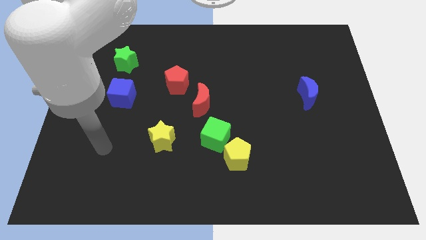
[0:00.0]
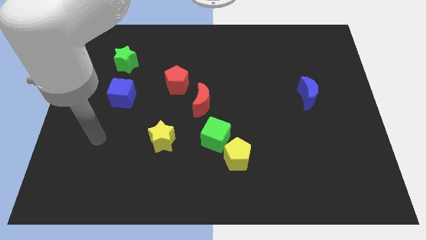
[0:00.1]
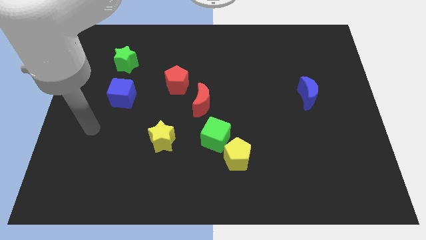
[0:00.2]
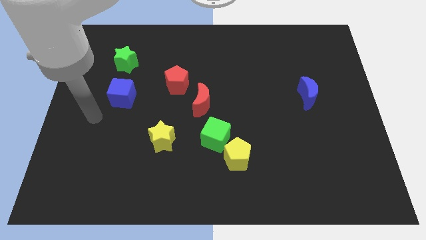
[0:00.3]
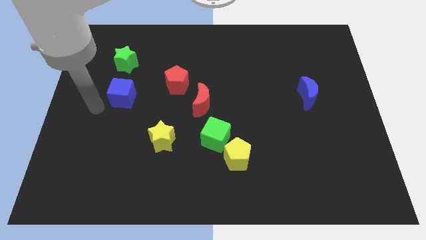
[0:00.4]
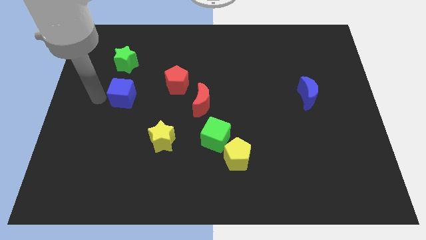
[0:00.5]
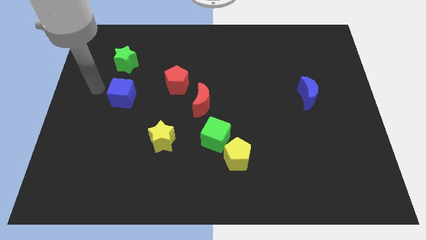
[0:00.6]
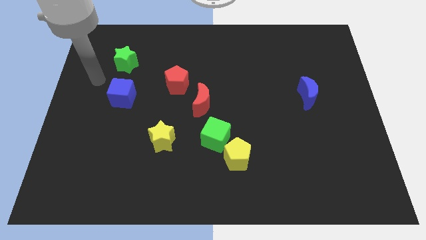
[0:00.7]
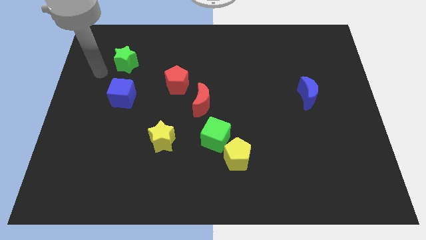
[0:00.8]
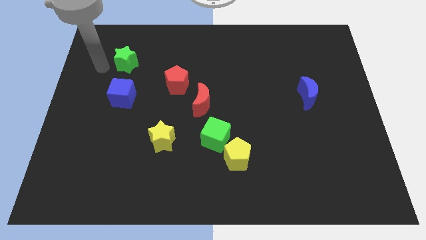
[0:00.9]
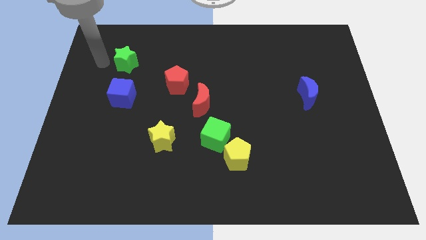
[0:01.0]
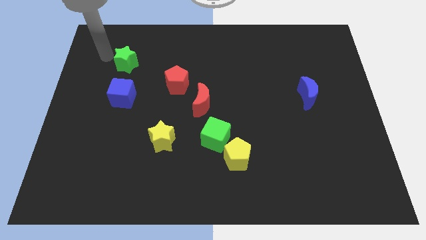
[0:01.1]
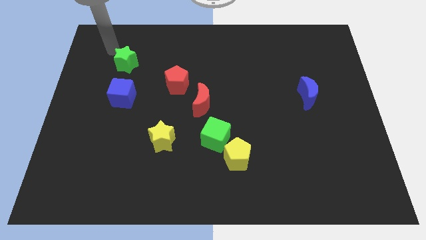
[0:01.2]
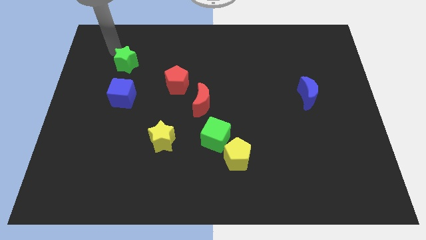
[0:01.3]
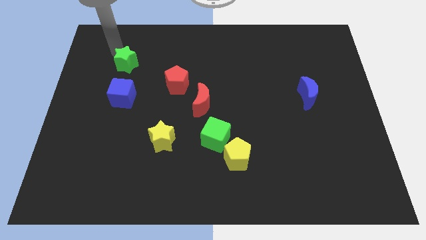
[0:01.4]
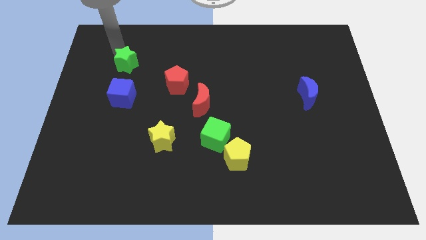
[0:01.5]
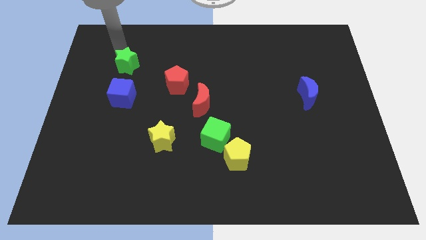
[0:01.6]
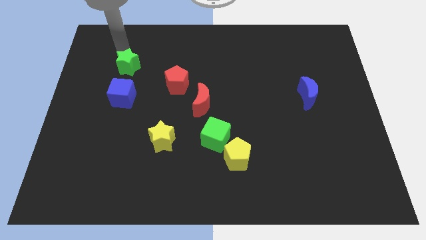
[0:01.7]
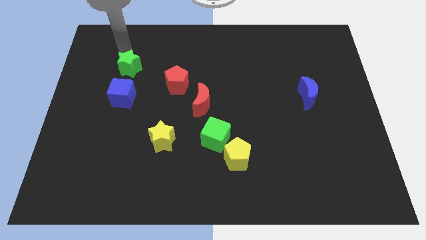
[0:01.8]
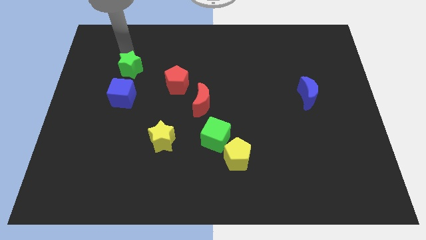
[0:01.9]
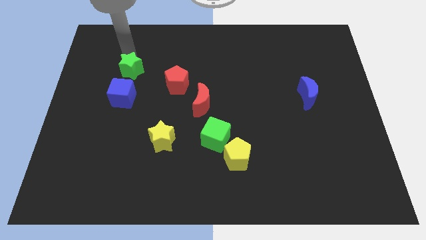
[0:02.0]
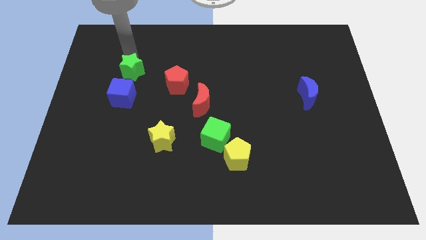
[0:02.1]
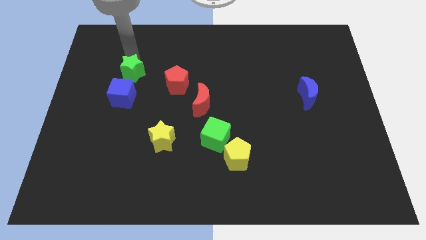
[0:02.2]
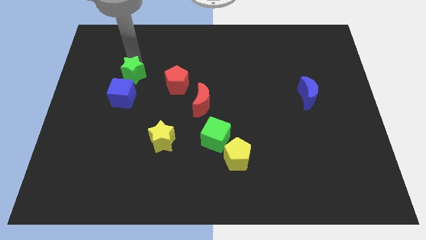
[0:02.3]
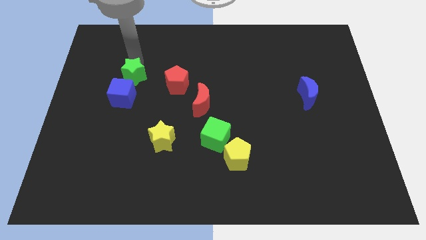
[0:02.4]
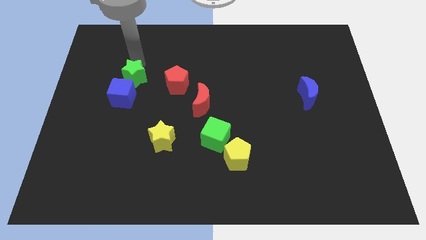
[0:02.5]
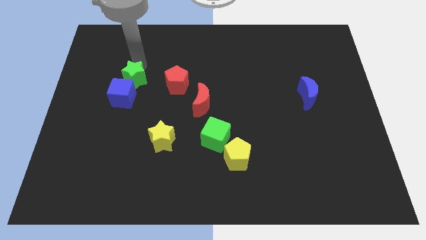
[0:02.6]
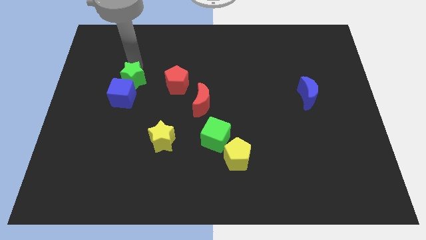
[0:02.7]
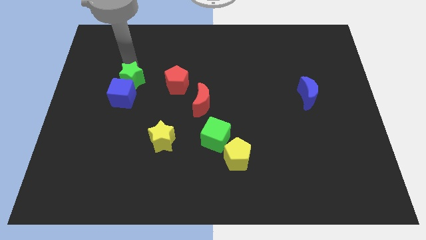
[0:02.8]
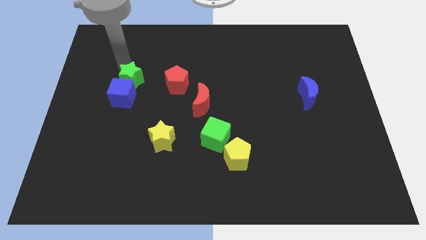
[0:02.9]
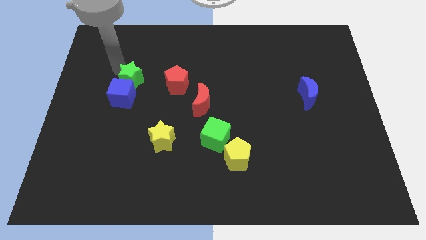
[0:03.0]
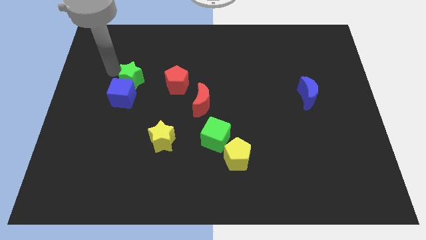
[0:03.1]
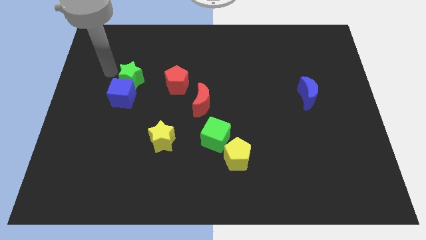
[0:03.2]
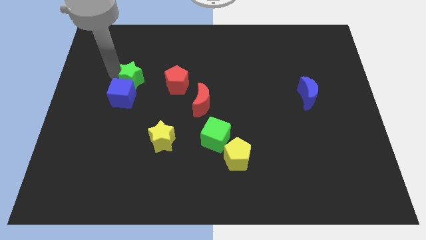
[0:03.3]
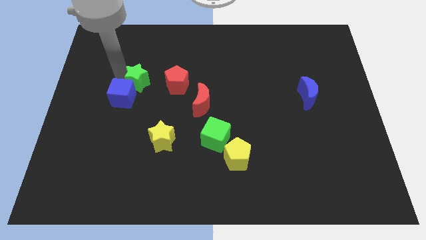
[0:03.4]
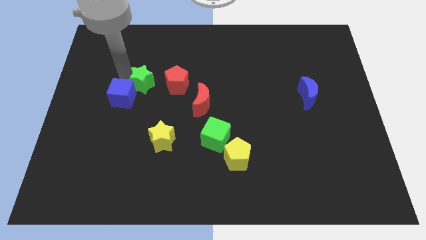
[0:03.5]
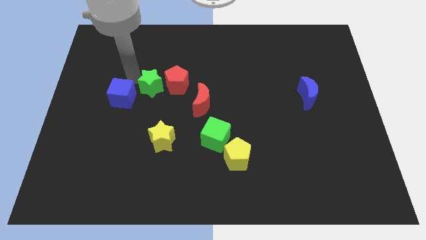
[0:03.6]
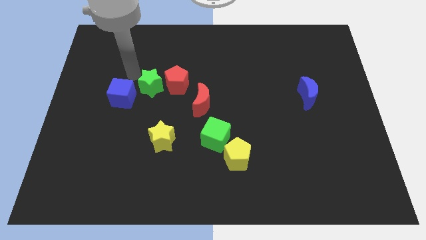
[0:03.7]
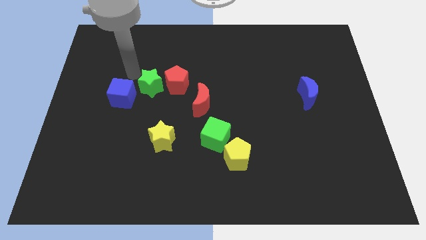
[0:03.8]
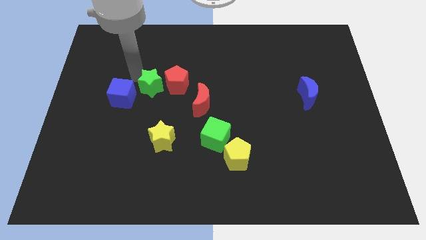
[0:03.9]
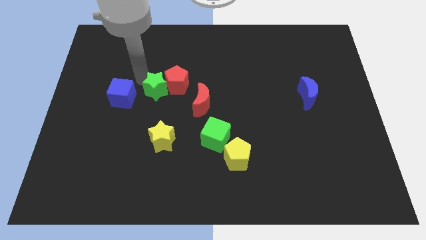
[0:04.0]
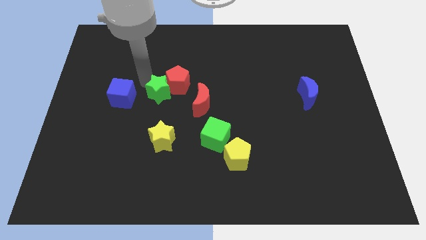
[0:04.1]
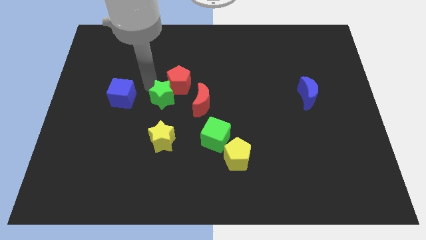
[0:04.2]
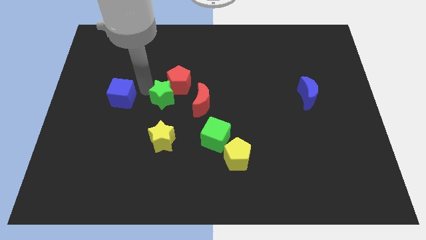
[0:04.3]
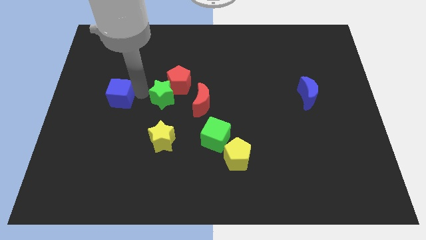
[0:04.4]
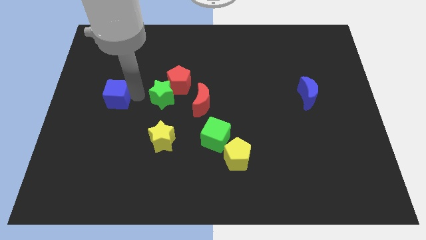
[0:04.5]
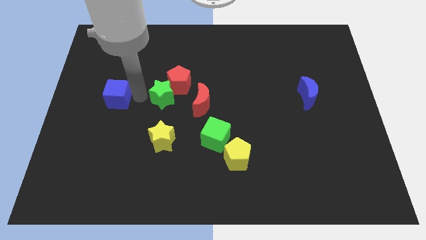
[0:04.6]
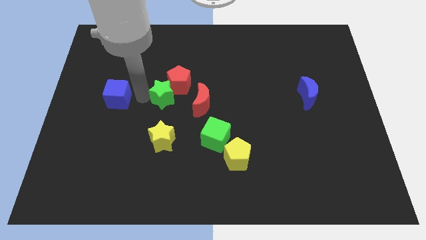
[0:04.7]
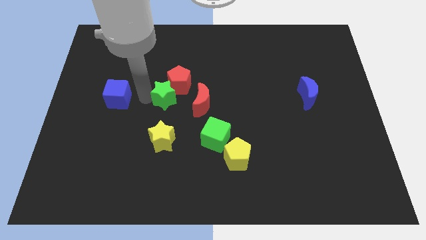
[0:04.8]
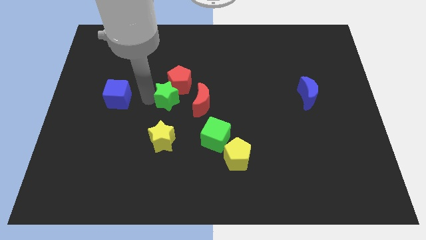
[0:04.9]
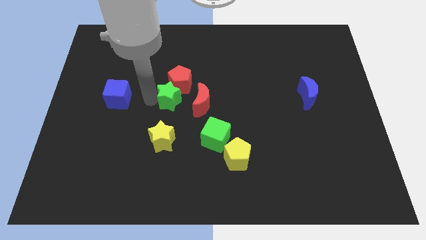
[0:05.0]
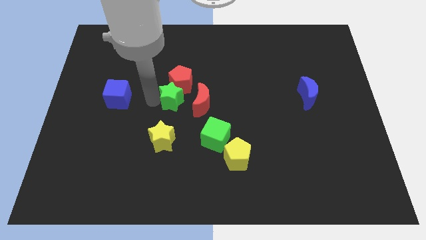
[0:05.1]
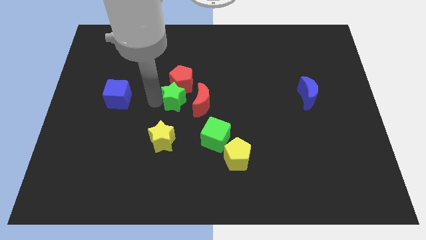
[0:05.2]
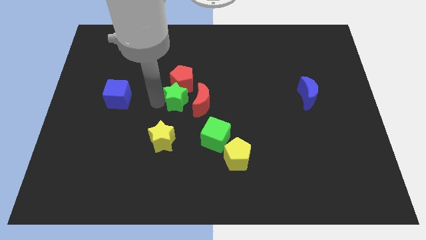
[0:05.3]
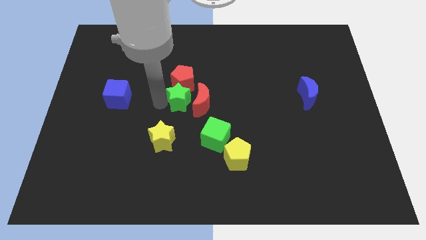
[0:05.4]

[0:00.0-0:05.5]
push the green star towards the red moon
